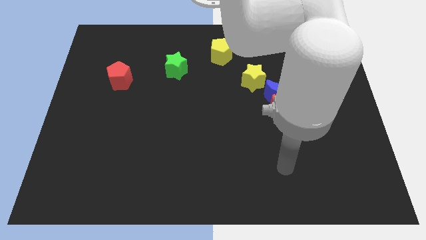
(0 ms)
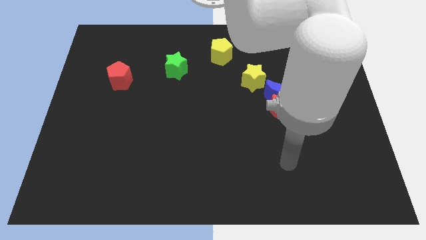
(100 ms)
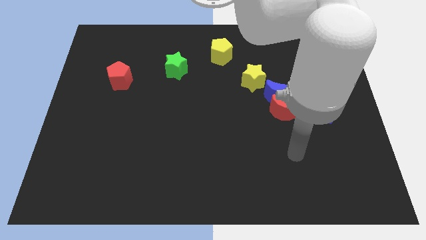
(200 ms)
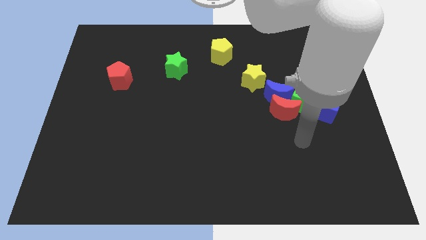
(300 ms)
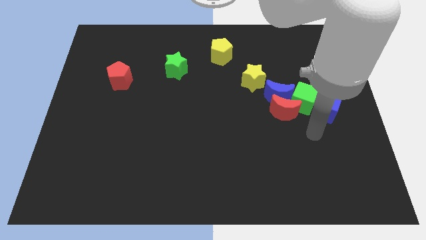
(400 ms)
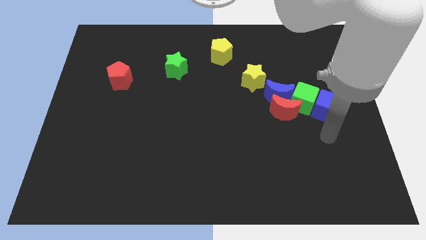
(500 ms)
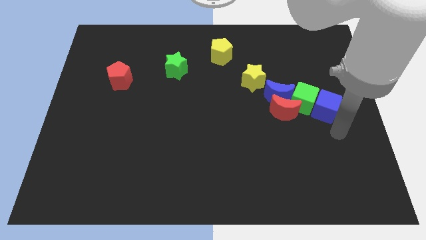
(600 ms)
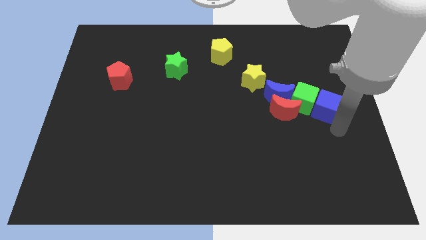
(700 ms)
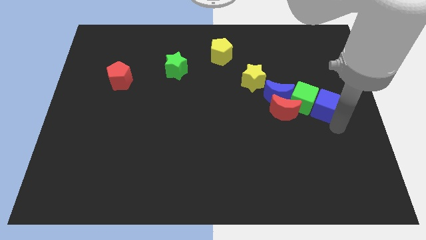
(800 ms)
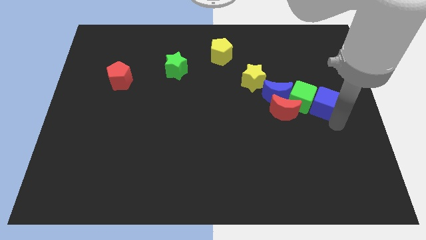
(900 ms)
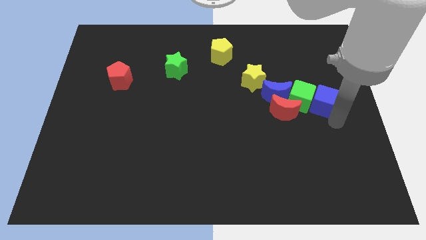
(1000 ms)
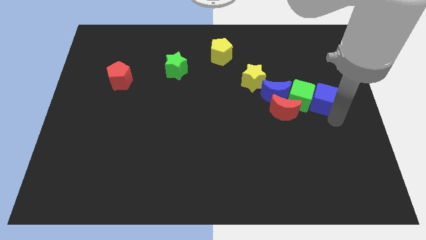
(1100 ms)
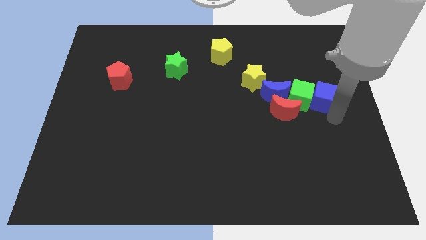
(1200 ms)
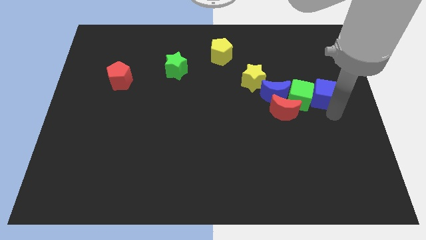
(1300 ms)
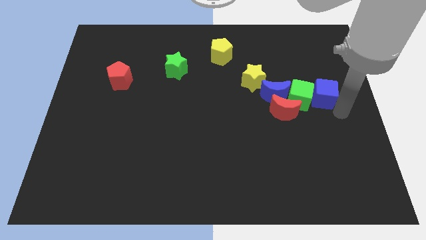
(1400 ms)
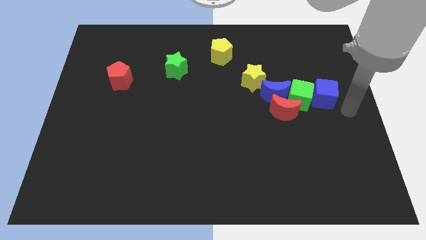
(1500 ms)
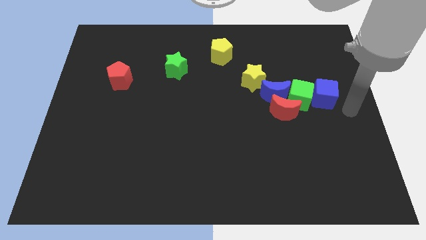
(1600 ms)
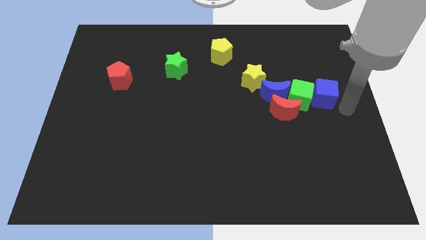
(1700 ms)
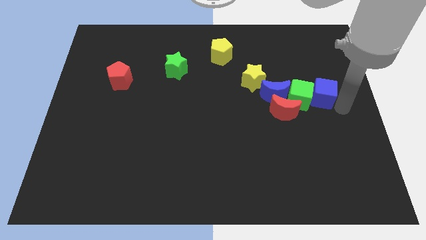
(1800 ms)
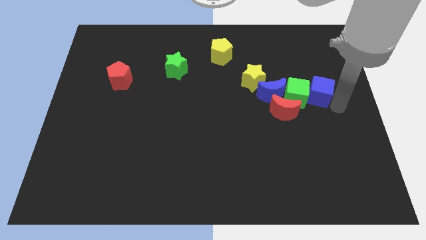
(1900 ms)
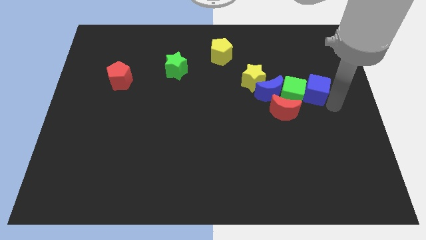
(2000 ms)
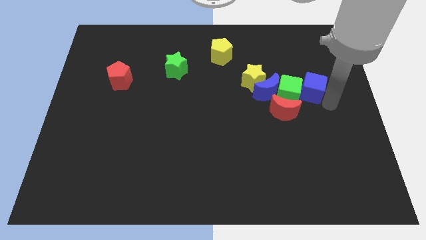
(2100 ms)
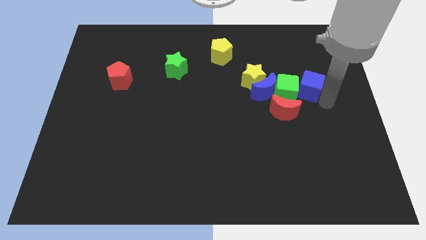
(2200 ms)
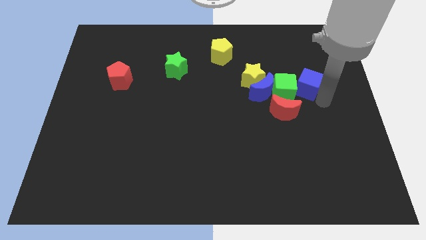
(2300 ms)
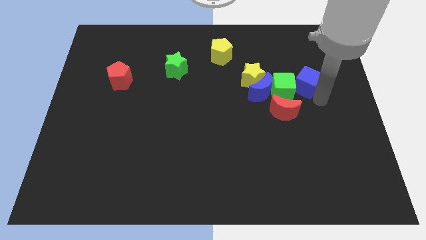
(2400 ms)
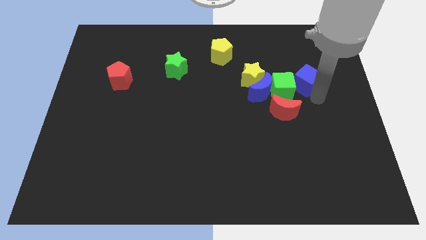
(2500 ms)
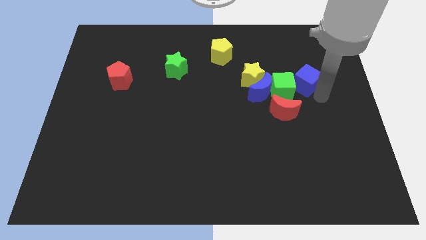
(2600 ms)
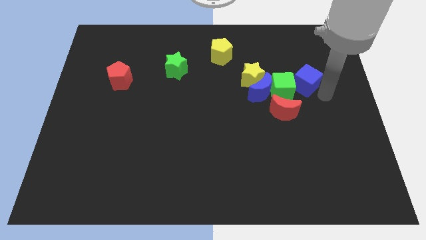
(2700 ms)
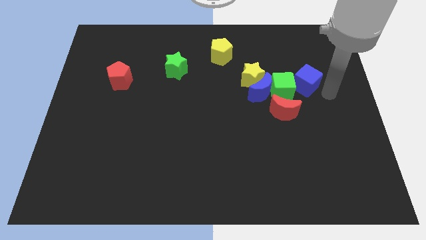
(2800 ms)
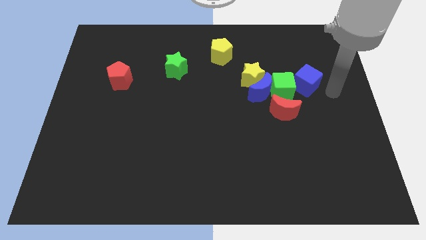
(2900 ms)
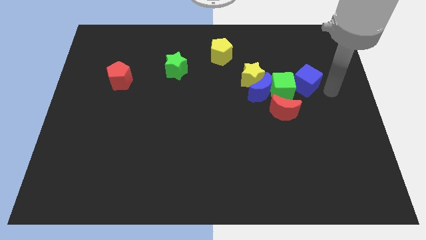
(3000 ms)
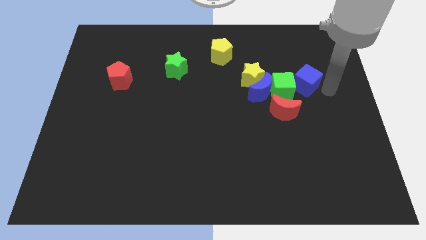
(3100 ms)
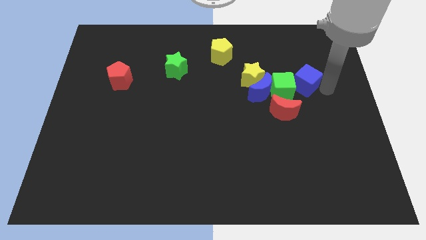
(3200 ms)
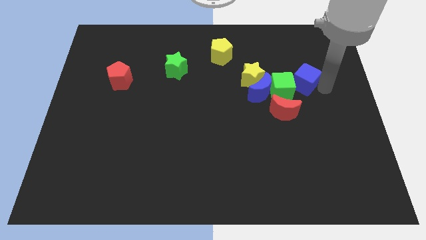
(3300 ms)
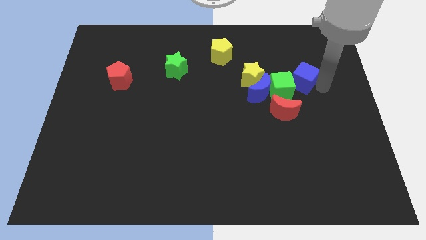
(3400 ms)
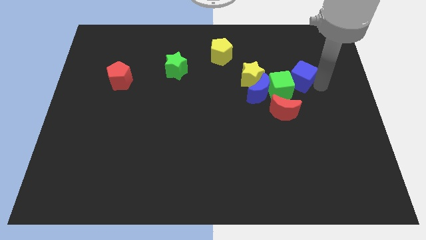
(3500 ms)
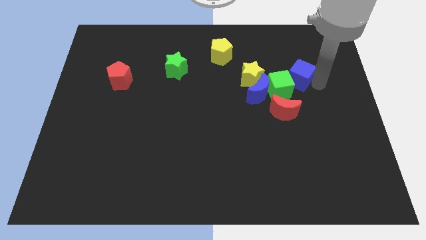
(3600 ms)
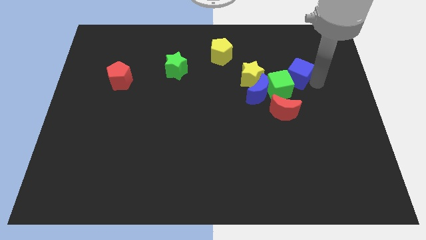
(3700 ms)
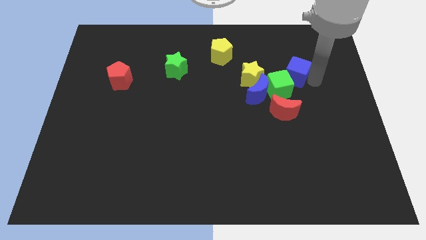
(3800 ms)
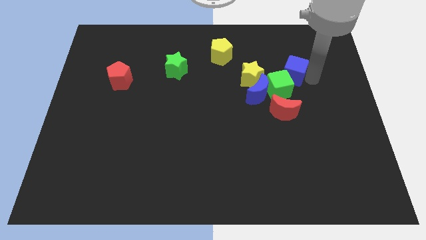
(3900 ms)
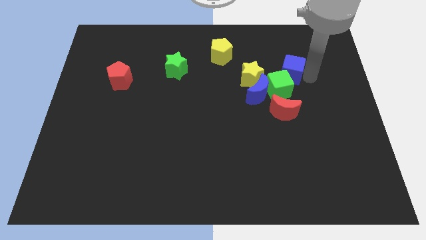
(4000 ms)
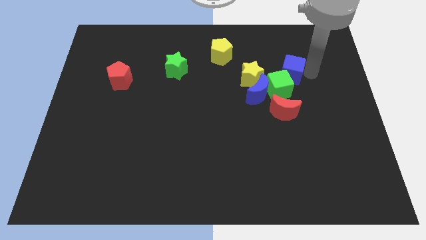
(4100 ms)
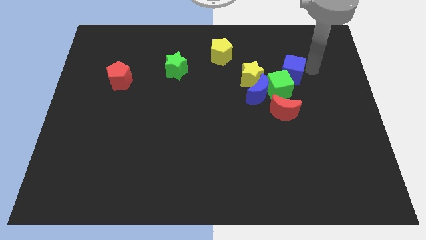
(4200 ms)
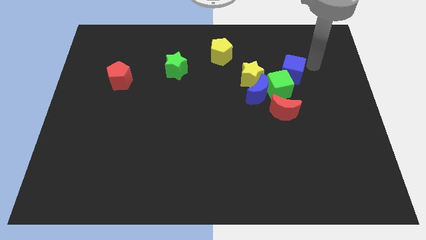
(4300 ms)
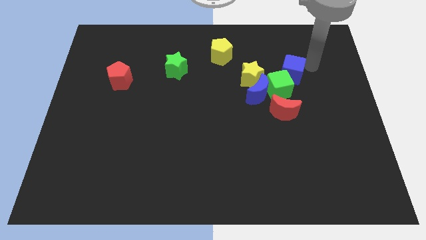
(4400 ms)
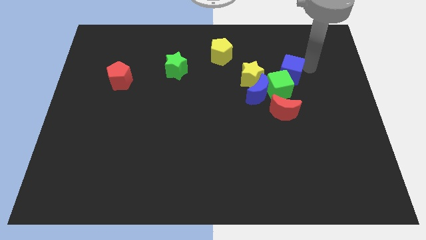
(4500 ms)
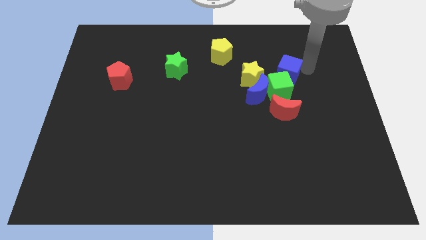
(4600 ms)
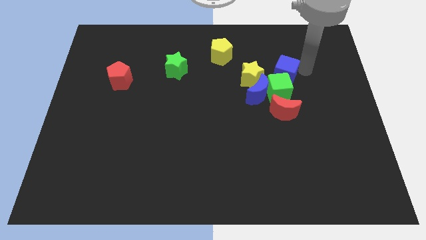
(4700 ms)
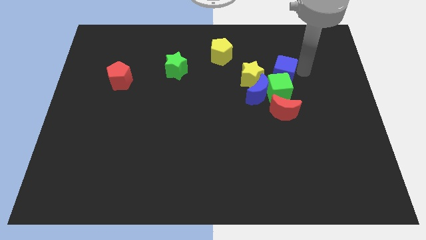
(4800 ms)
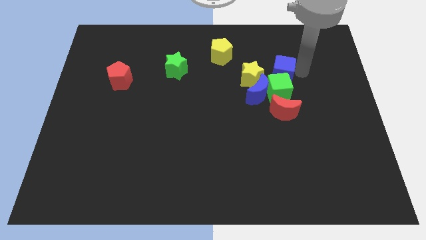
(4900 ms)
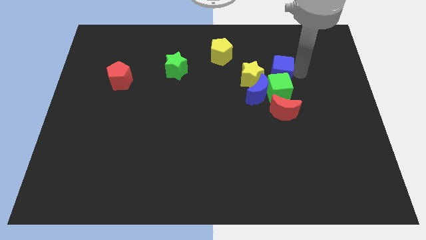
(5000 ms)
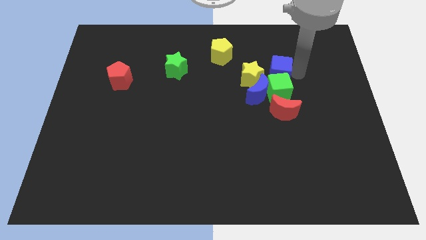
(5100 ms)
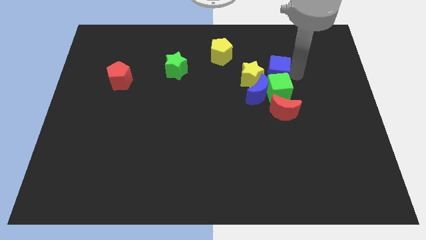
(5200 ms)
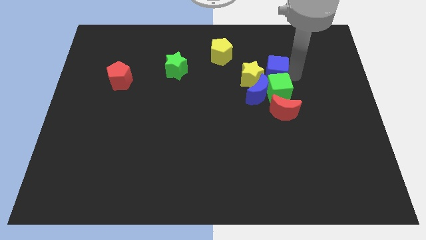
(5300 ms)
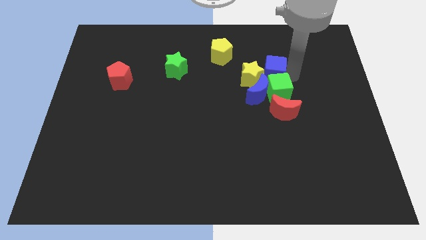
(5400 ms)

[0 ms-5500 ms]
slide the blue cube towards the yellow star

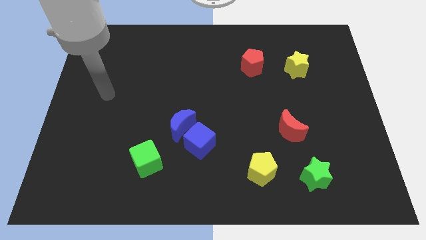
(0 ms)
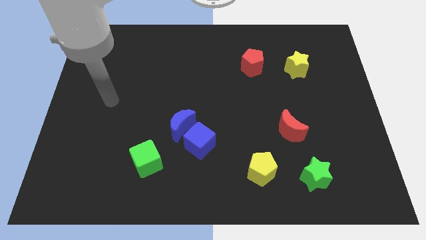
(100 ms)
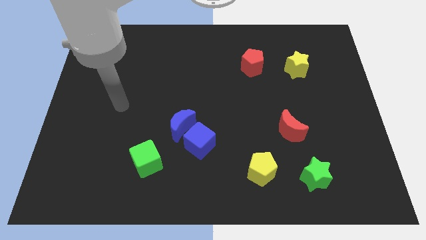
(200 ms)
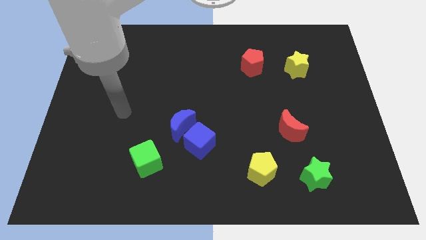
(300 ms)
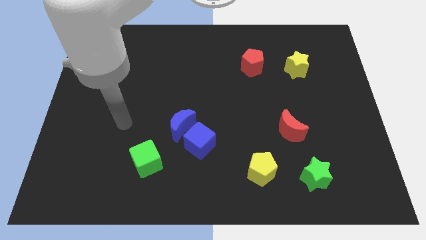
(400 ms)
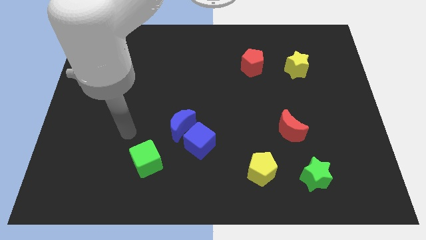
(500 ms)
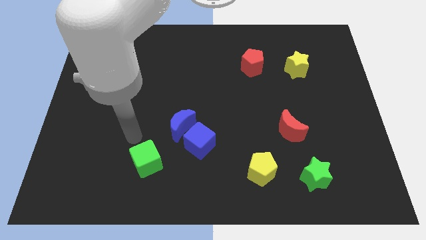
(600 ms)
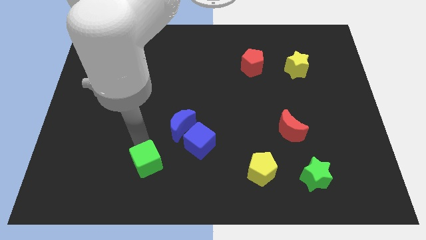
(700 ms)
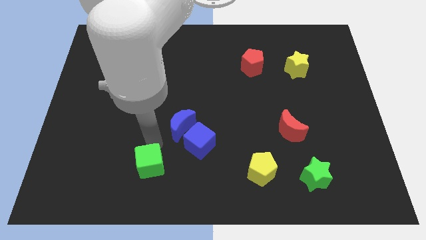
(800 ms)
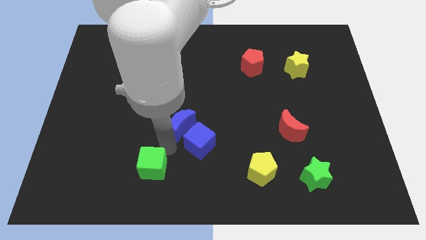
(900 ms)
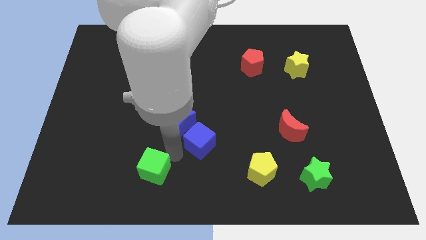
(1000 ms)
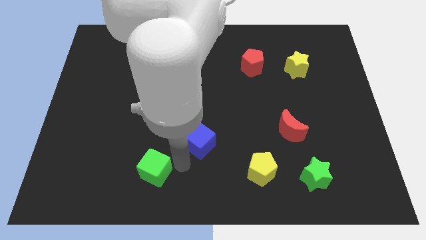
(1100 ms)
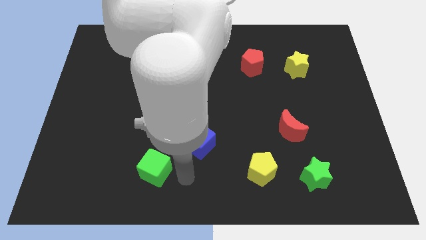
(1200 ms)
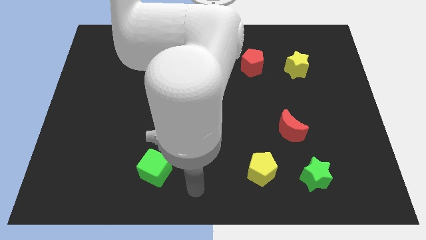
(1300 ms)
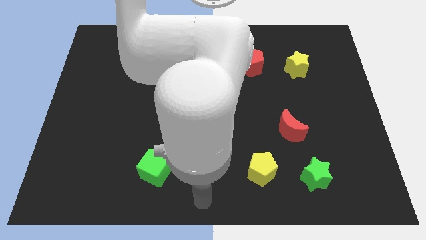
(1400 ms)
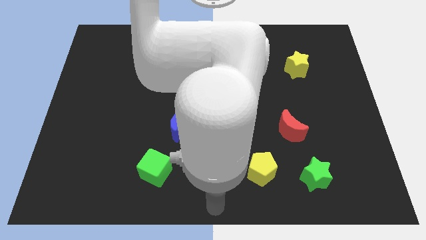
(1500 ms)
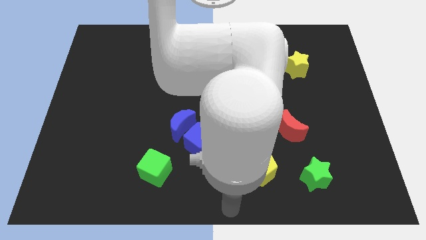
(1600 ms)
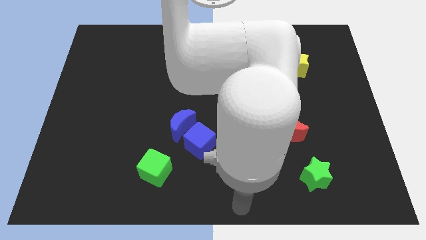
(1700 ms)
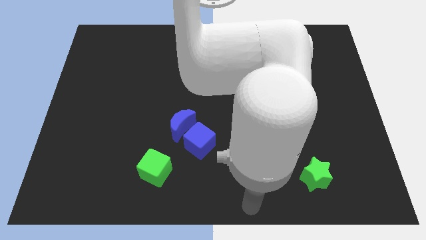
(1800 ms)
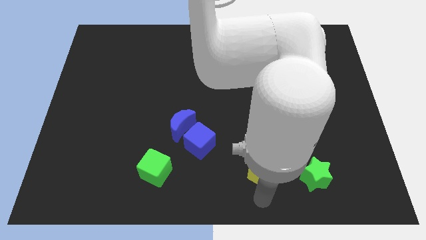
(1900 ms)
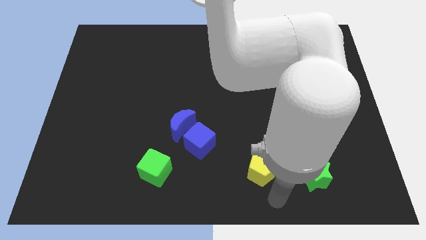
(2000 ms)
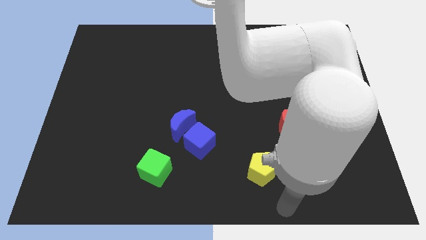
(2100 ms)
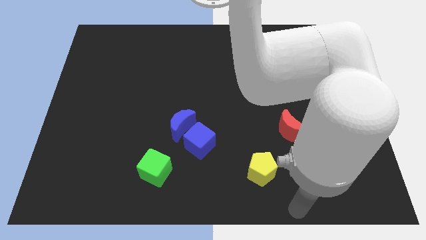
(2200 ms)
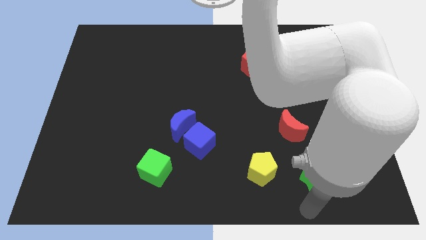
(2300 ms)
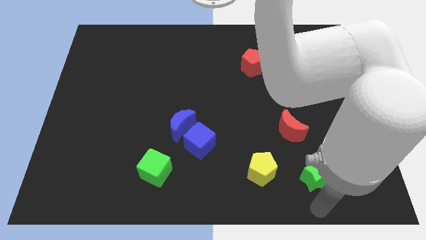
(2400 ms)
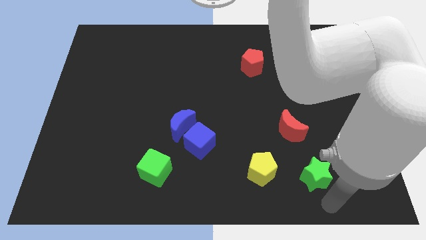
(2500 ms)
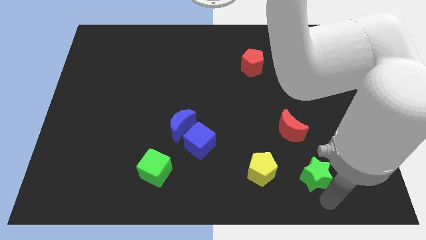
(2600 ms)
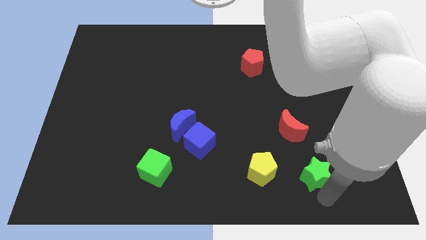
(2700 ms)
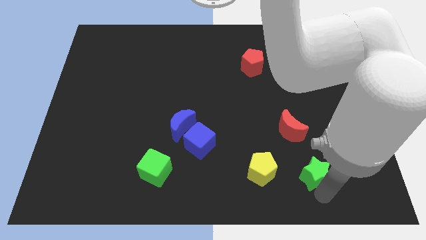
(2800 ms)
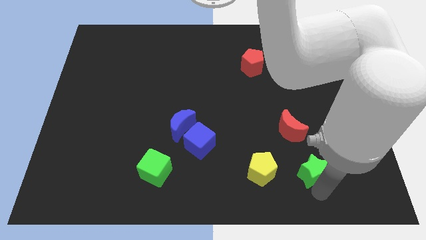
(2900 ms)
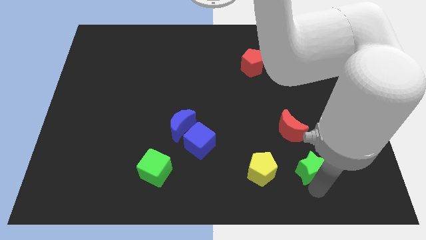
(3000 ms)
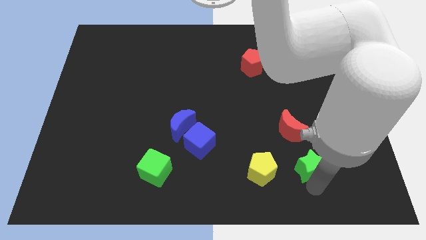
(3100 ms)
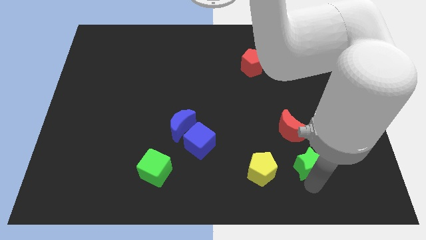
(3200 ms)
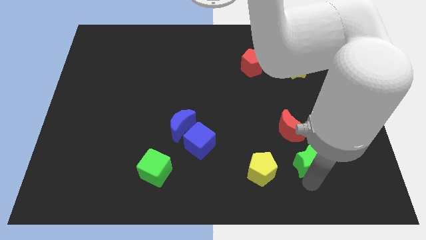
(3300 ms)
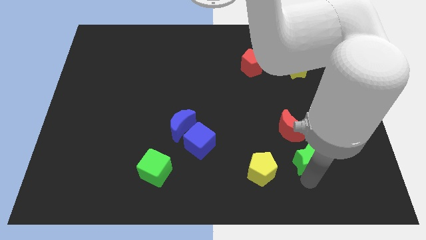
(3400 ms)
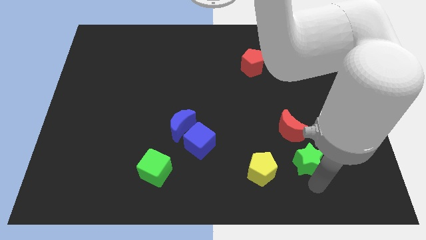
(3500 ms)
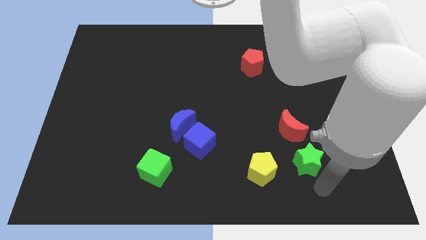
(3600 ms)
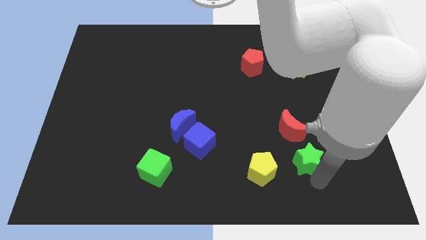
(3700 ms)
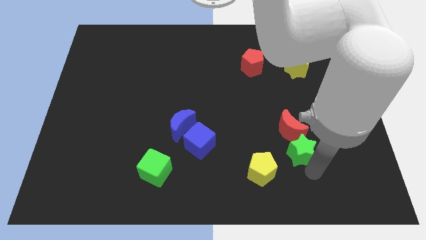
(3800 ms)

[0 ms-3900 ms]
move the green star towards the red moon
